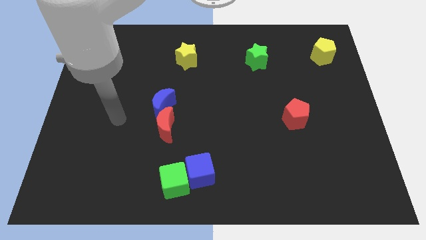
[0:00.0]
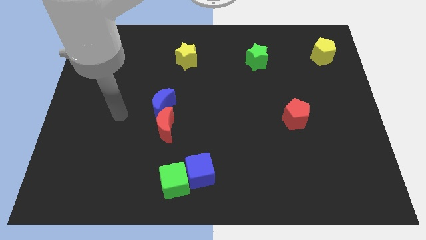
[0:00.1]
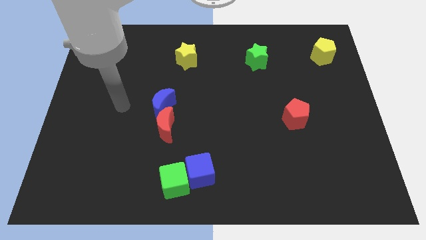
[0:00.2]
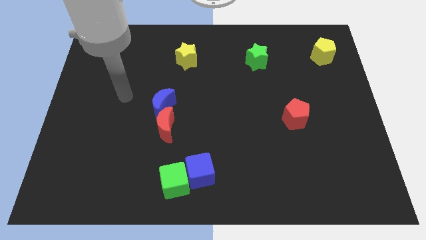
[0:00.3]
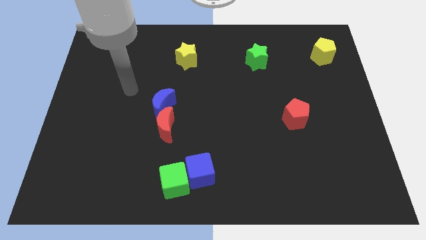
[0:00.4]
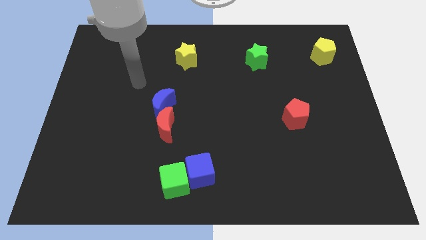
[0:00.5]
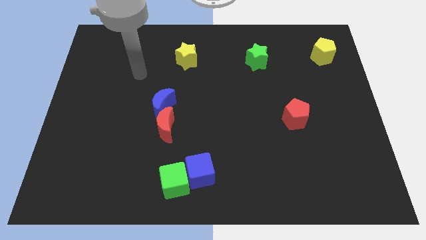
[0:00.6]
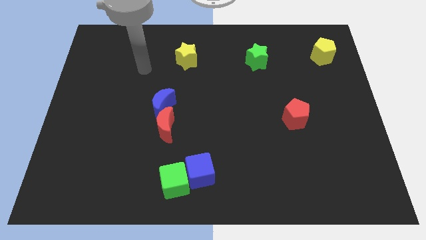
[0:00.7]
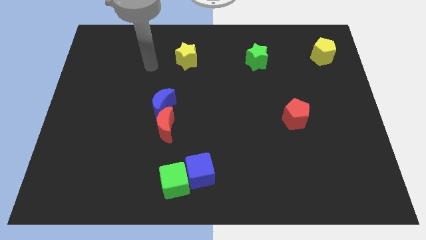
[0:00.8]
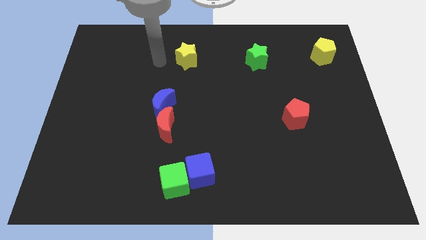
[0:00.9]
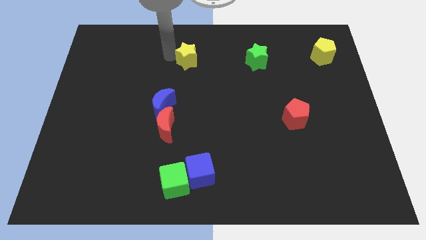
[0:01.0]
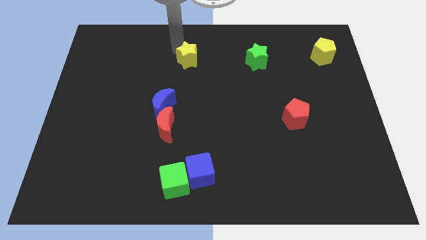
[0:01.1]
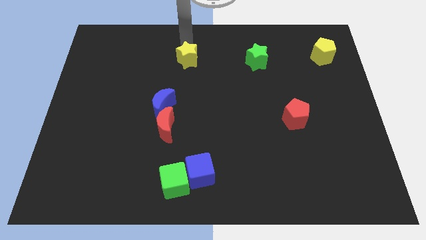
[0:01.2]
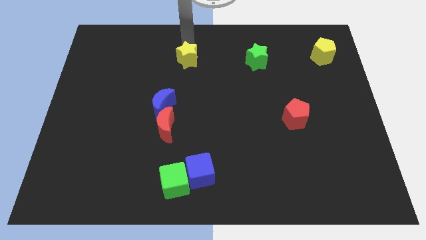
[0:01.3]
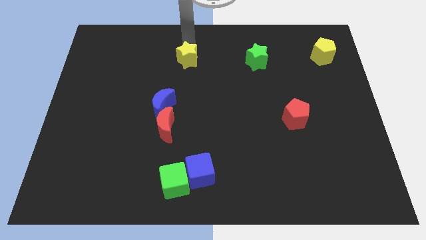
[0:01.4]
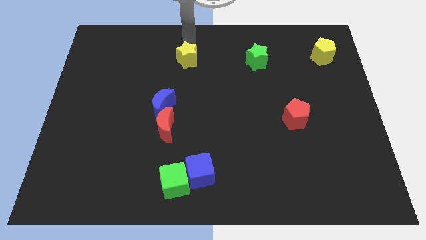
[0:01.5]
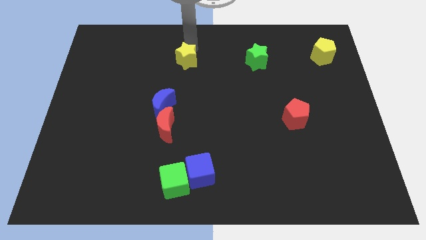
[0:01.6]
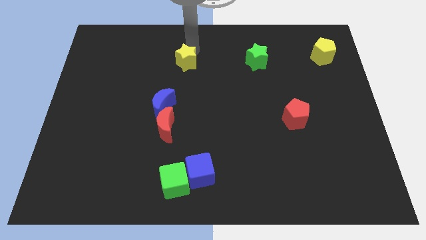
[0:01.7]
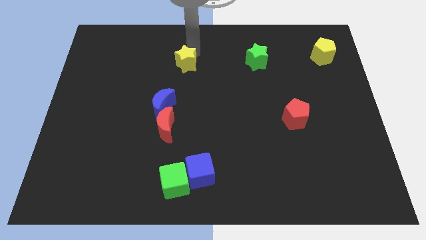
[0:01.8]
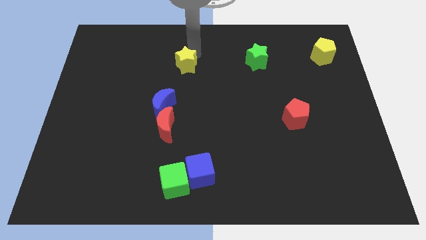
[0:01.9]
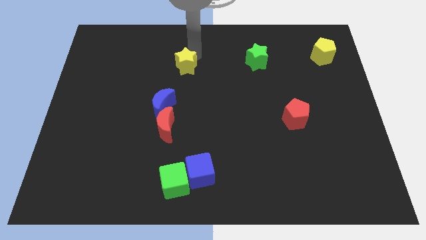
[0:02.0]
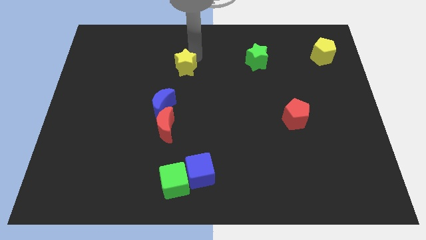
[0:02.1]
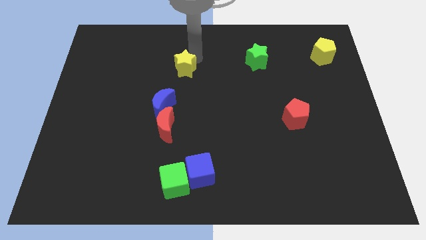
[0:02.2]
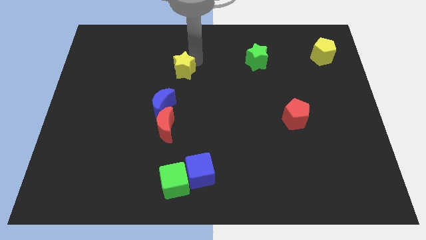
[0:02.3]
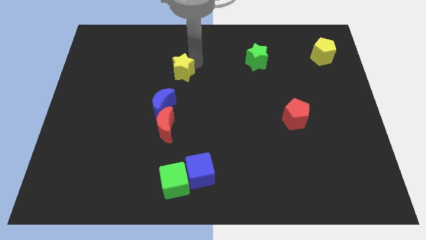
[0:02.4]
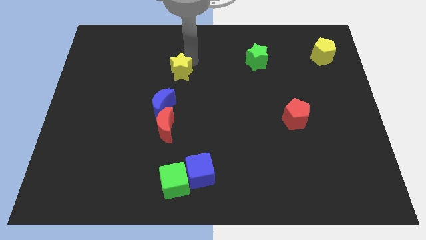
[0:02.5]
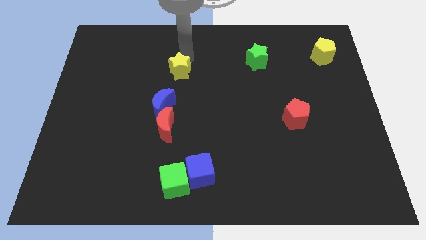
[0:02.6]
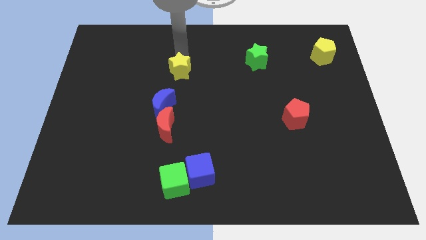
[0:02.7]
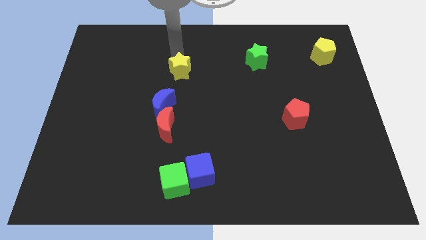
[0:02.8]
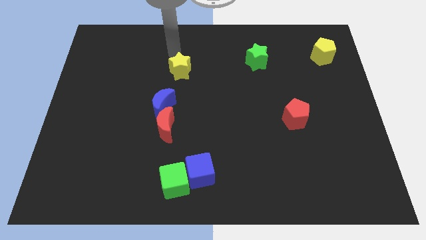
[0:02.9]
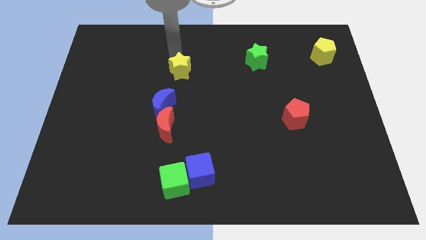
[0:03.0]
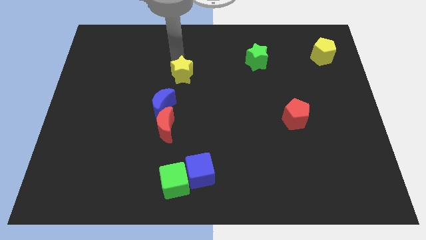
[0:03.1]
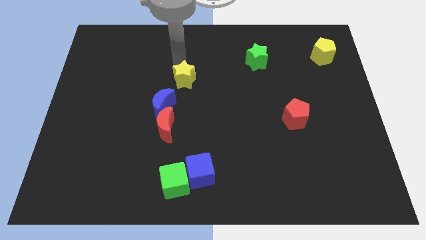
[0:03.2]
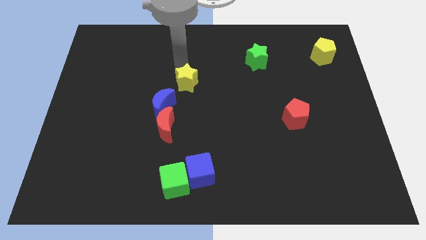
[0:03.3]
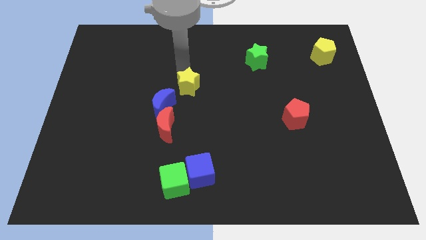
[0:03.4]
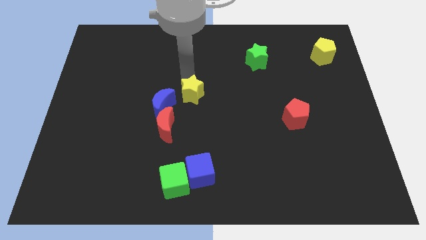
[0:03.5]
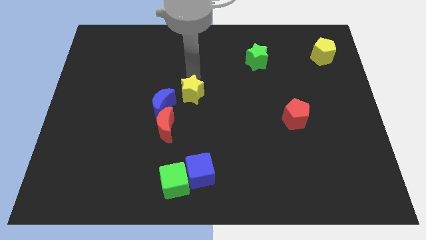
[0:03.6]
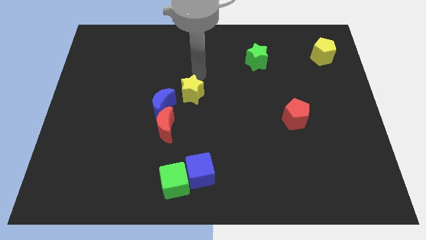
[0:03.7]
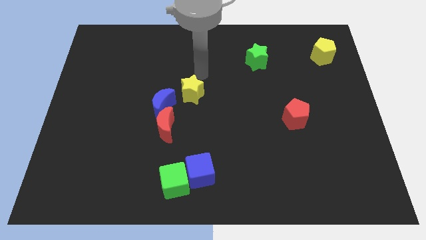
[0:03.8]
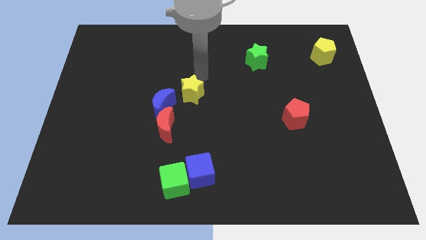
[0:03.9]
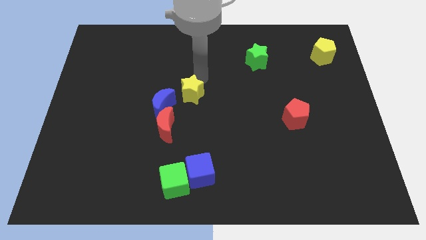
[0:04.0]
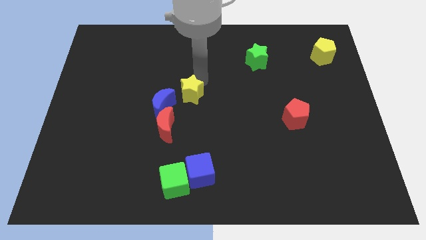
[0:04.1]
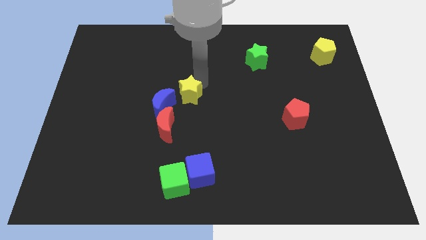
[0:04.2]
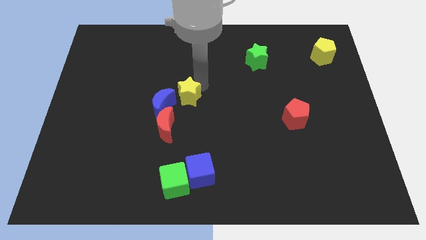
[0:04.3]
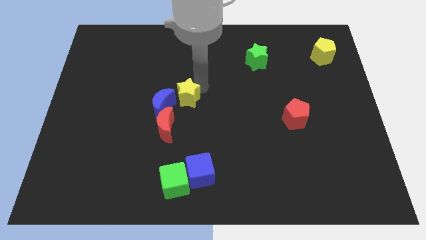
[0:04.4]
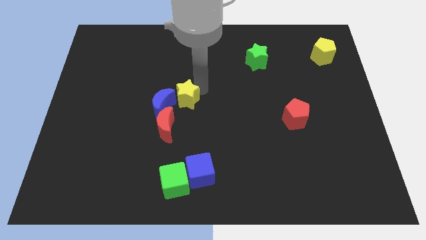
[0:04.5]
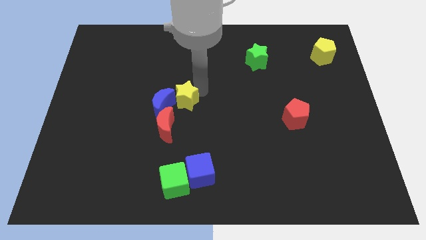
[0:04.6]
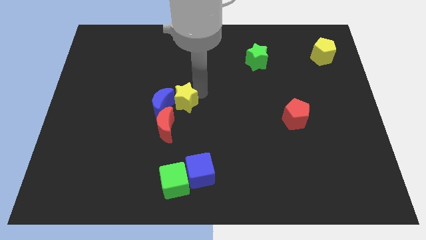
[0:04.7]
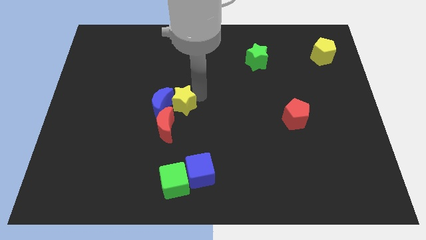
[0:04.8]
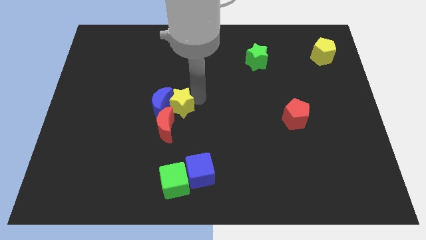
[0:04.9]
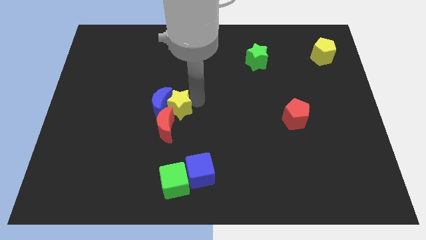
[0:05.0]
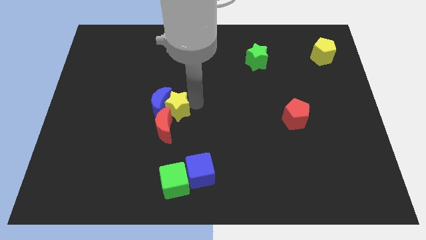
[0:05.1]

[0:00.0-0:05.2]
move the yellow star towards the red moon

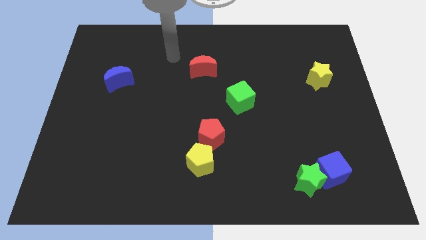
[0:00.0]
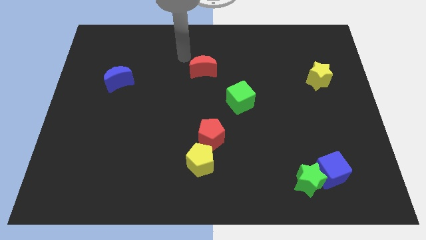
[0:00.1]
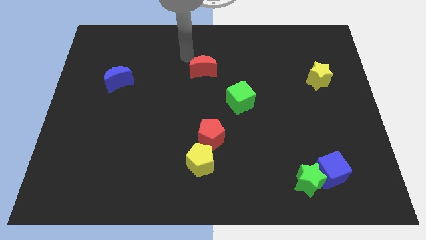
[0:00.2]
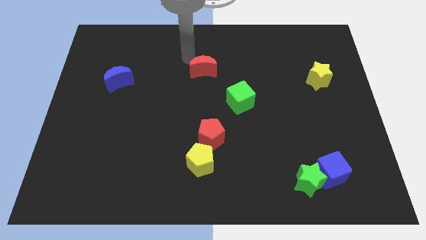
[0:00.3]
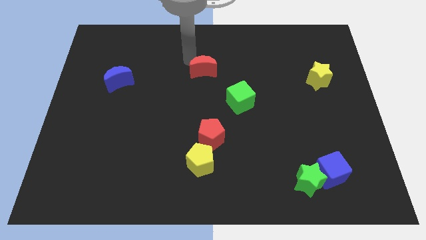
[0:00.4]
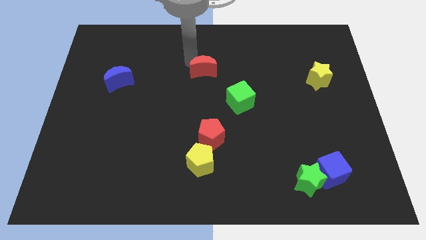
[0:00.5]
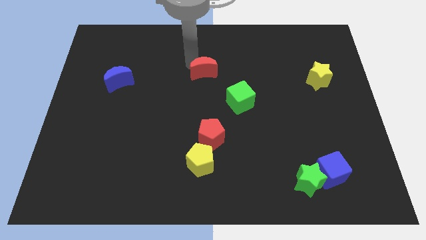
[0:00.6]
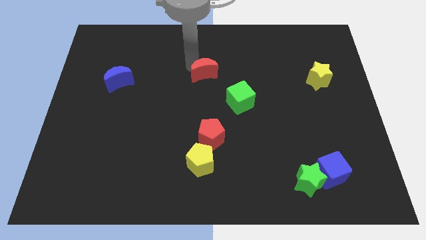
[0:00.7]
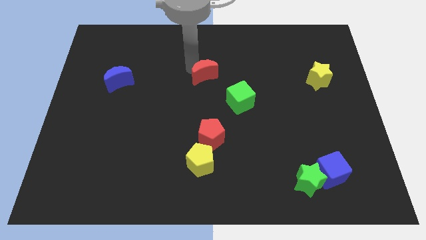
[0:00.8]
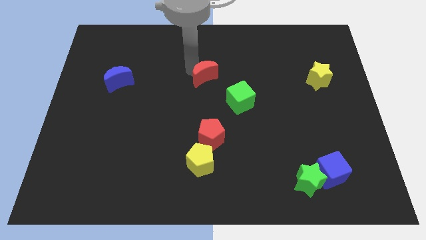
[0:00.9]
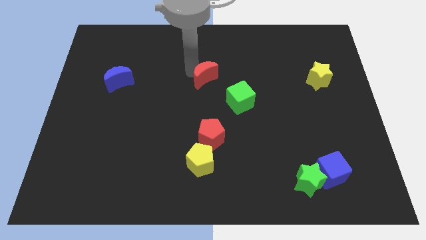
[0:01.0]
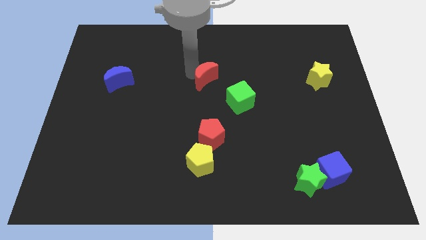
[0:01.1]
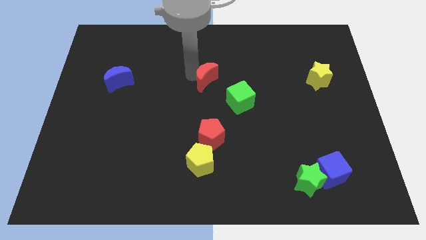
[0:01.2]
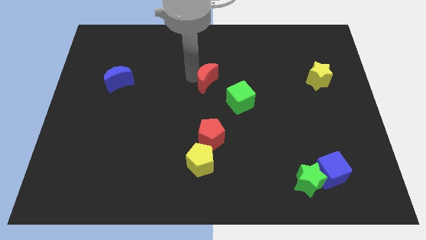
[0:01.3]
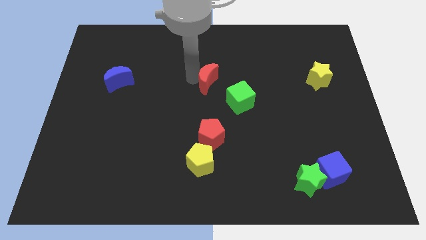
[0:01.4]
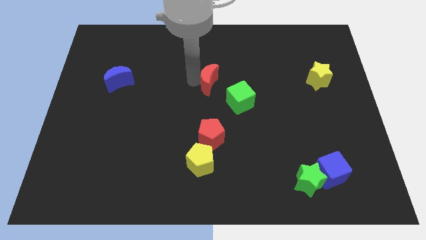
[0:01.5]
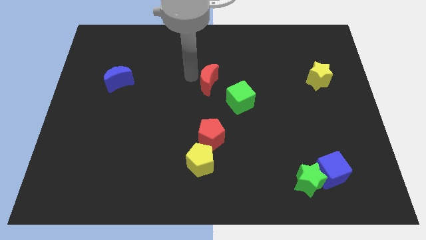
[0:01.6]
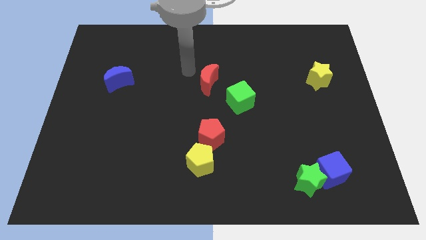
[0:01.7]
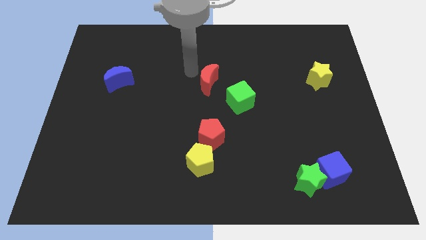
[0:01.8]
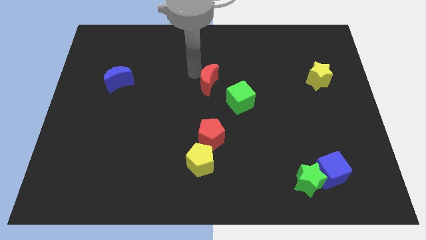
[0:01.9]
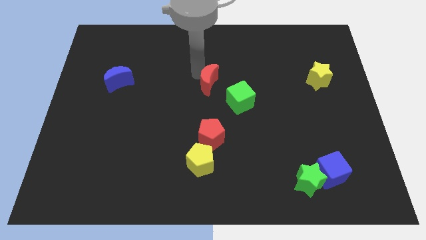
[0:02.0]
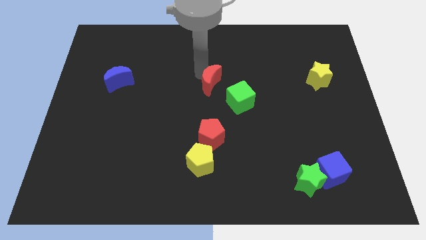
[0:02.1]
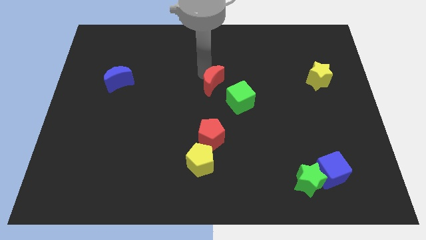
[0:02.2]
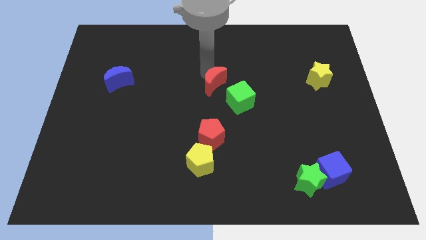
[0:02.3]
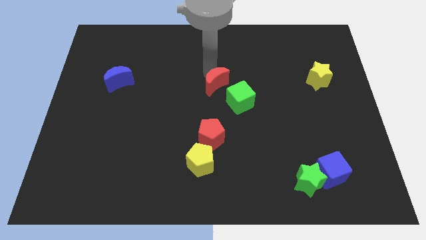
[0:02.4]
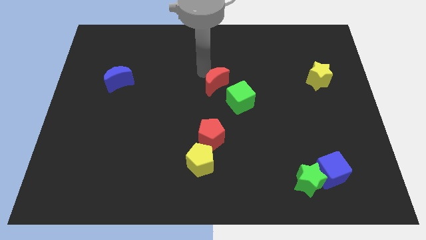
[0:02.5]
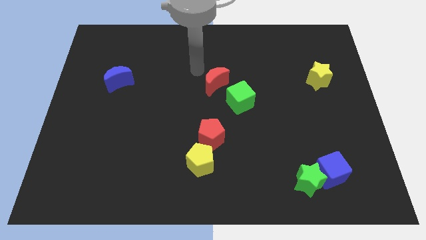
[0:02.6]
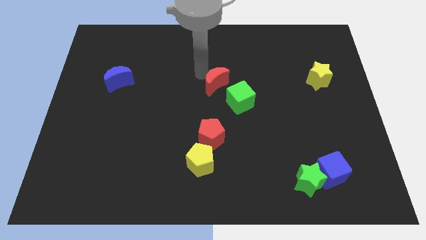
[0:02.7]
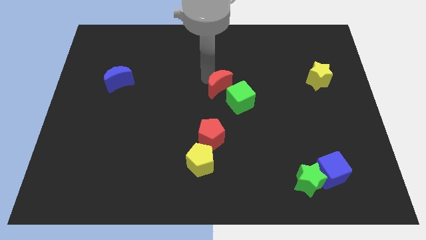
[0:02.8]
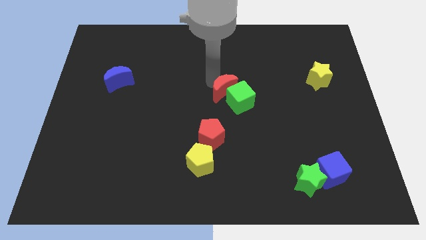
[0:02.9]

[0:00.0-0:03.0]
push the red moon close to the green cube
